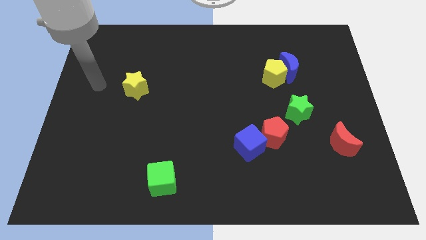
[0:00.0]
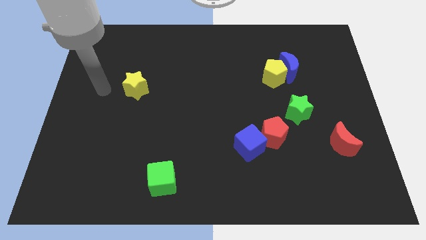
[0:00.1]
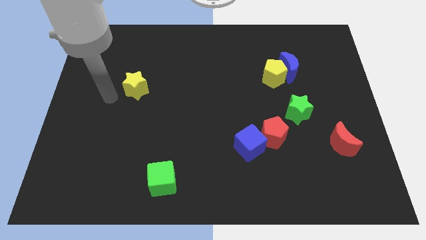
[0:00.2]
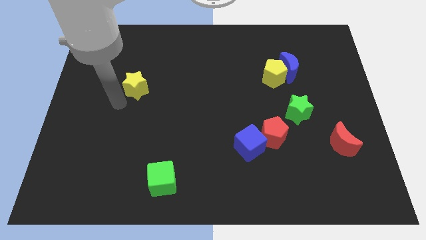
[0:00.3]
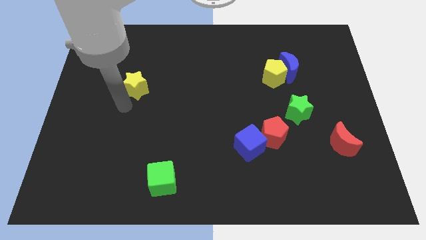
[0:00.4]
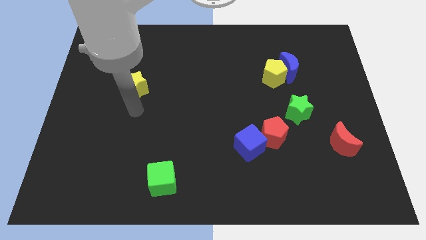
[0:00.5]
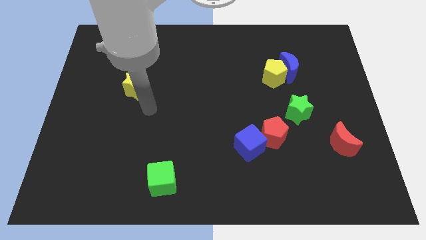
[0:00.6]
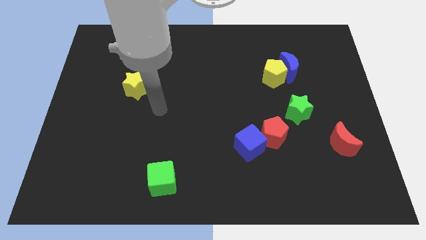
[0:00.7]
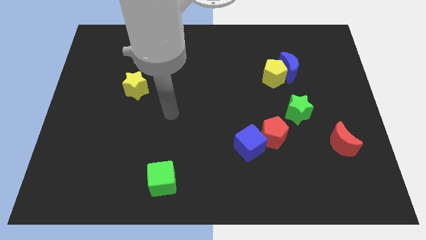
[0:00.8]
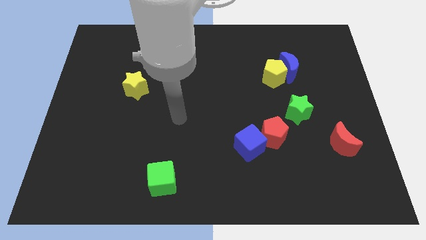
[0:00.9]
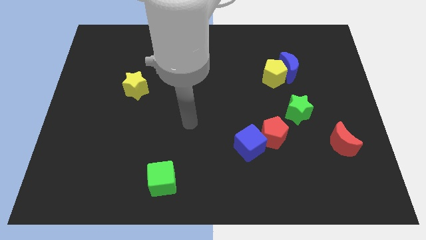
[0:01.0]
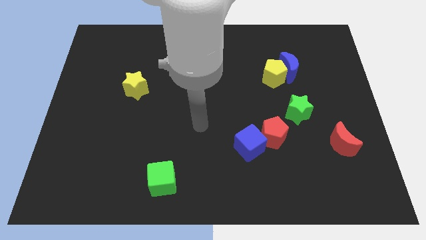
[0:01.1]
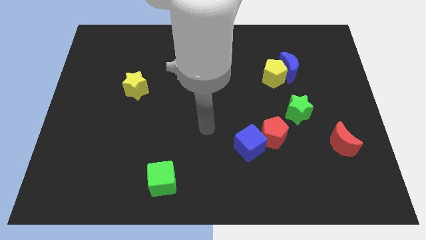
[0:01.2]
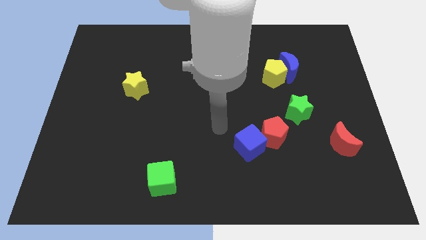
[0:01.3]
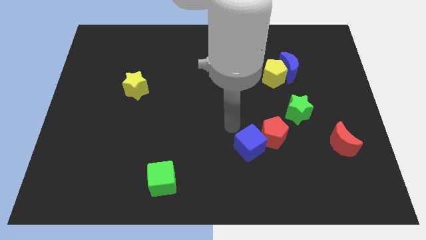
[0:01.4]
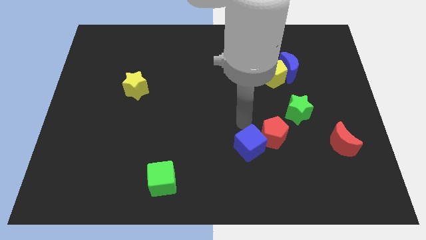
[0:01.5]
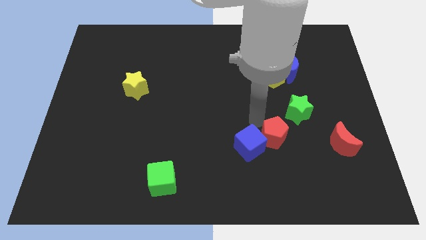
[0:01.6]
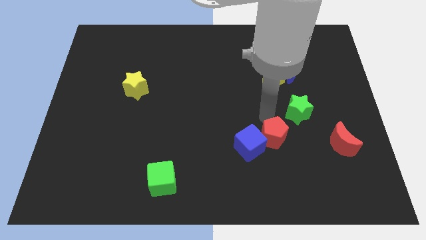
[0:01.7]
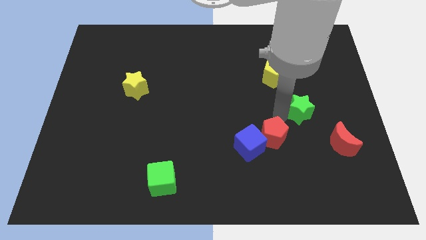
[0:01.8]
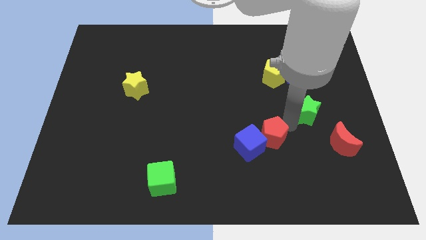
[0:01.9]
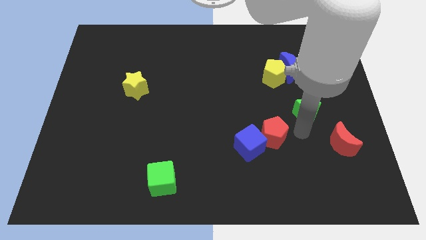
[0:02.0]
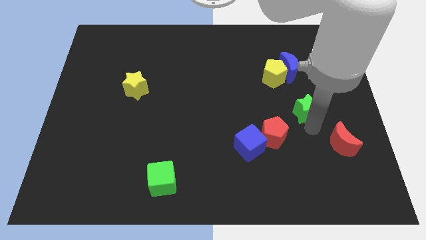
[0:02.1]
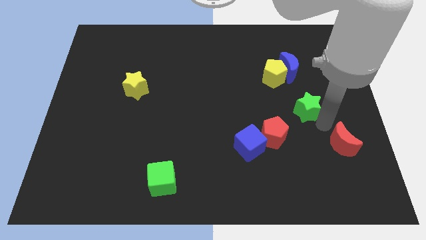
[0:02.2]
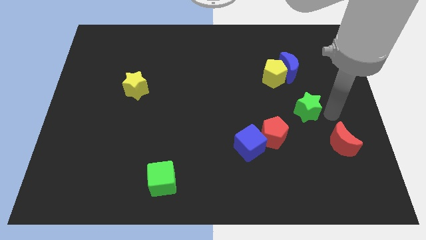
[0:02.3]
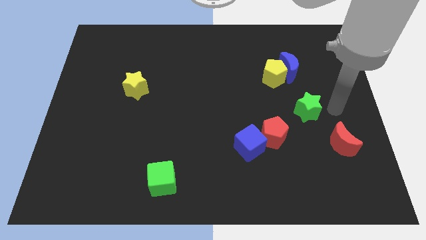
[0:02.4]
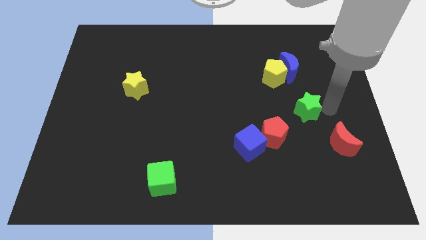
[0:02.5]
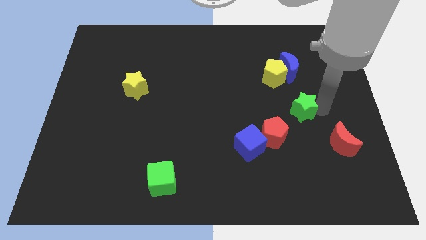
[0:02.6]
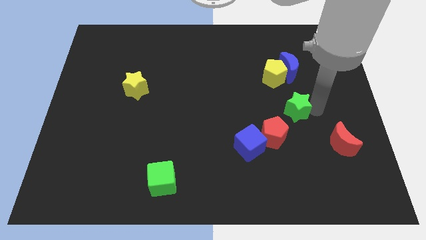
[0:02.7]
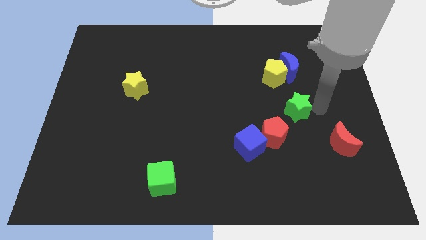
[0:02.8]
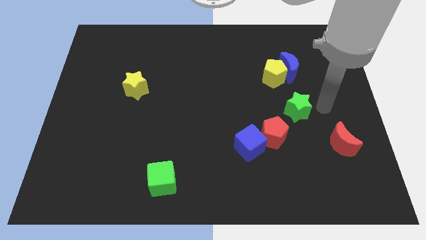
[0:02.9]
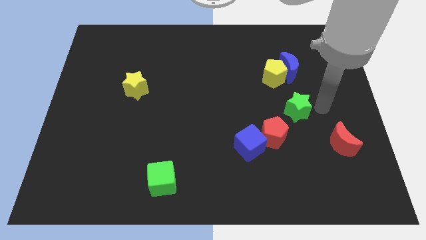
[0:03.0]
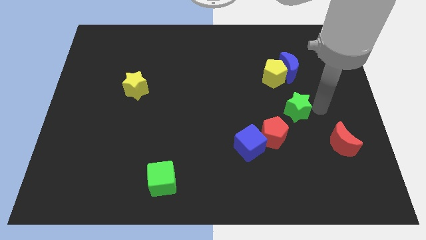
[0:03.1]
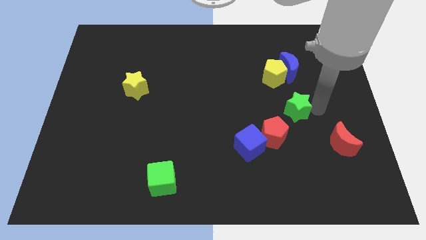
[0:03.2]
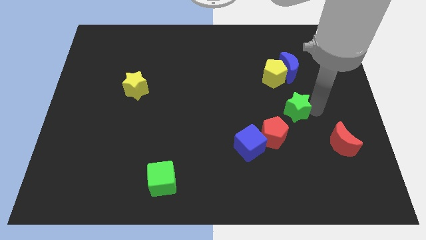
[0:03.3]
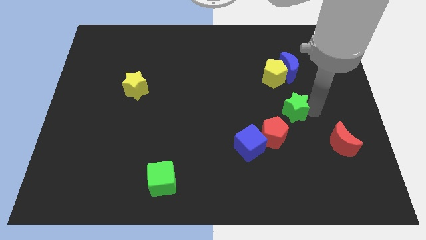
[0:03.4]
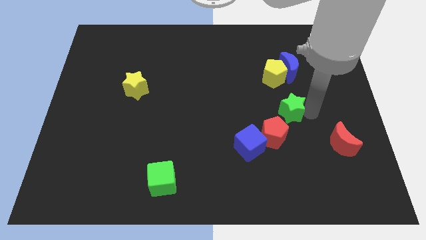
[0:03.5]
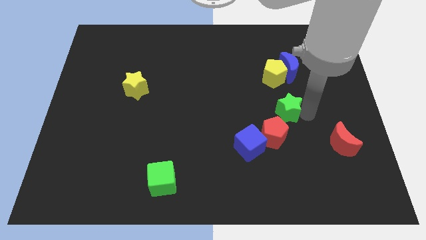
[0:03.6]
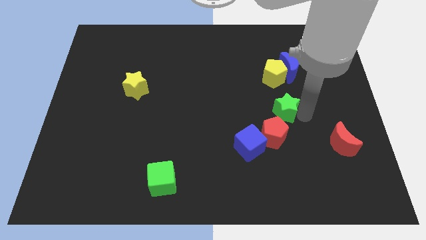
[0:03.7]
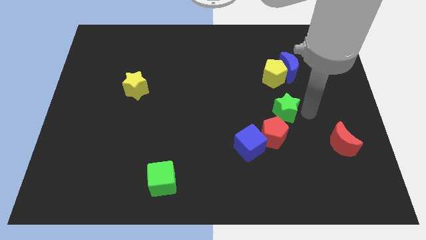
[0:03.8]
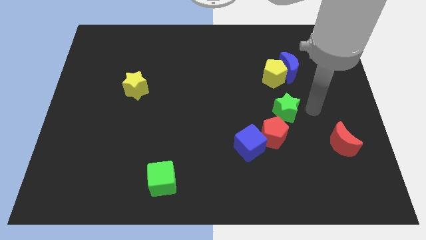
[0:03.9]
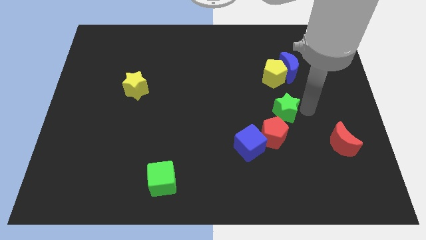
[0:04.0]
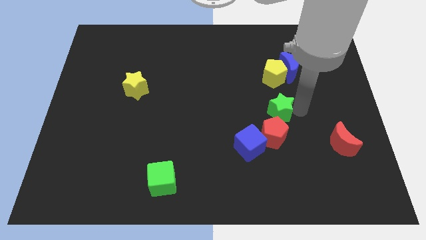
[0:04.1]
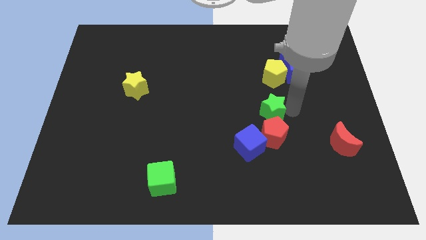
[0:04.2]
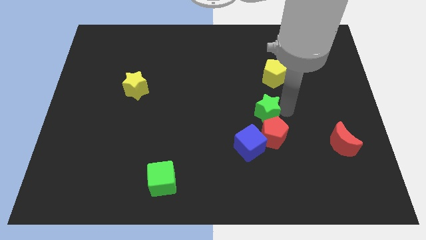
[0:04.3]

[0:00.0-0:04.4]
slightly push the green star left

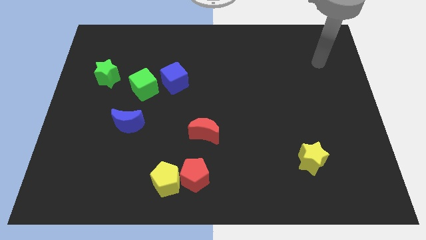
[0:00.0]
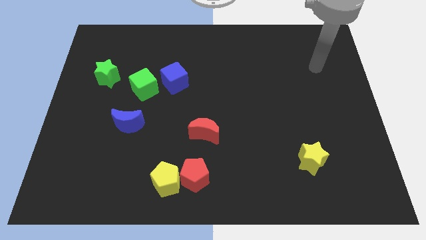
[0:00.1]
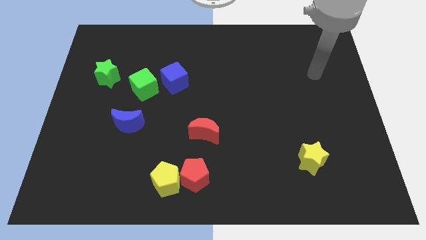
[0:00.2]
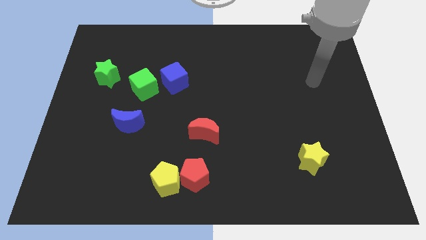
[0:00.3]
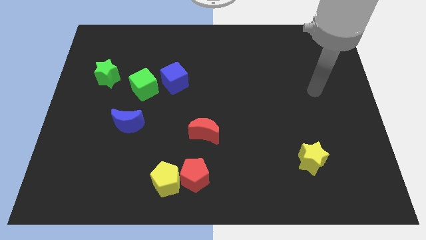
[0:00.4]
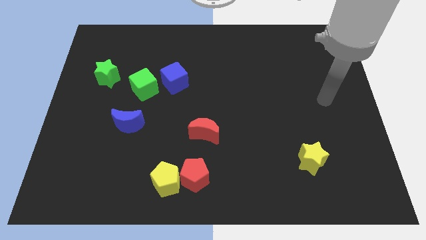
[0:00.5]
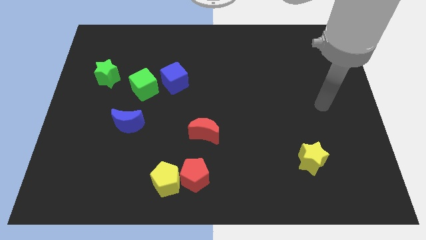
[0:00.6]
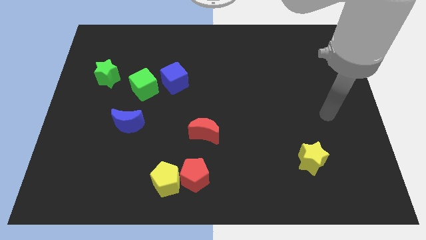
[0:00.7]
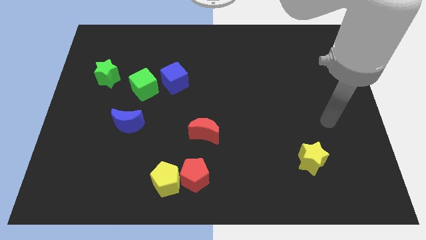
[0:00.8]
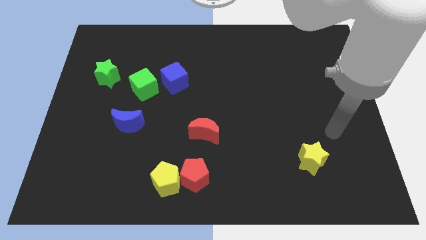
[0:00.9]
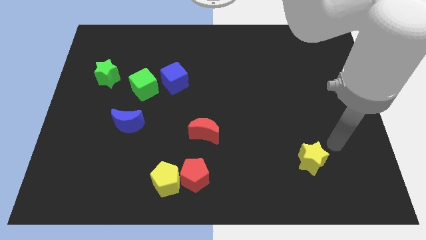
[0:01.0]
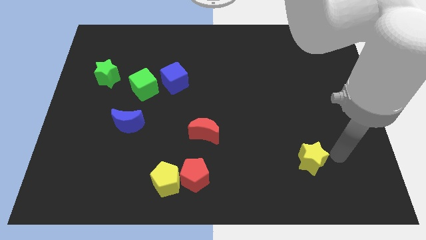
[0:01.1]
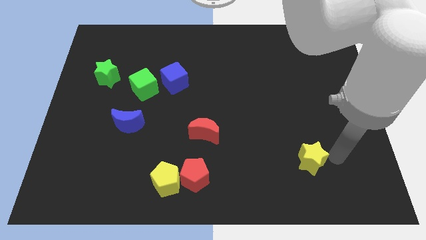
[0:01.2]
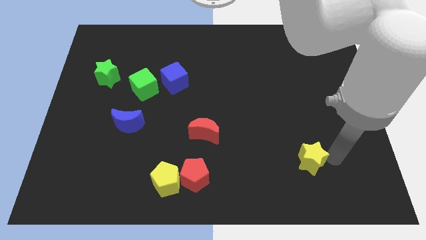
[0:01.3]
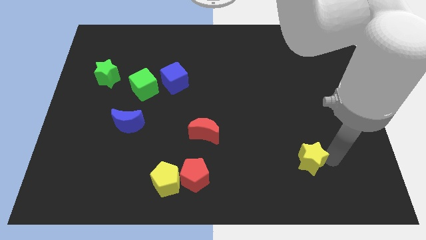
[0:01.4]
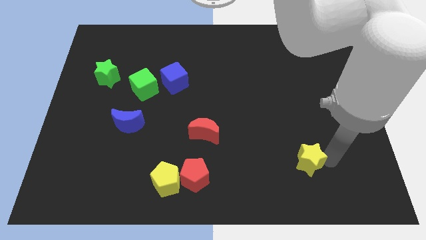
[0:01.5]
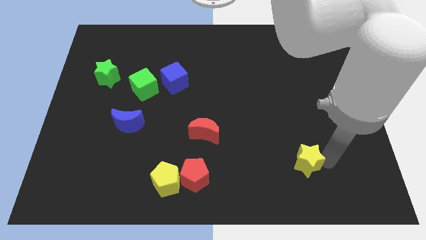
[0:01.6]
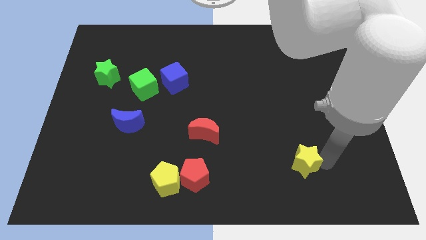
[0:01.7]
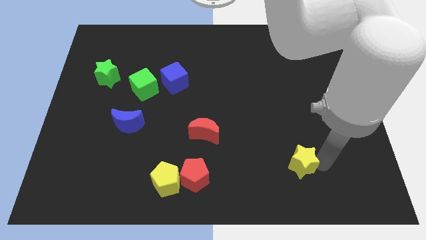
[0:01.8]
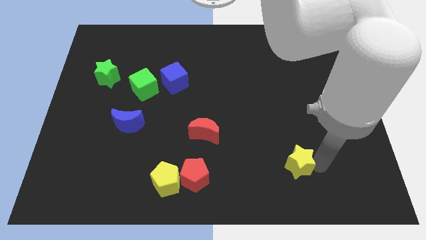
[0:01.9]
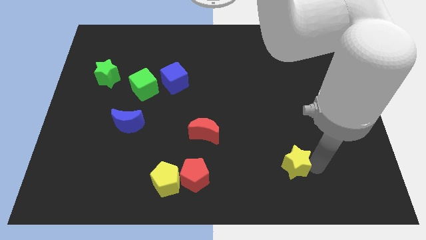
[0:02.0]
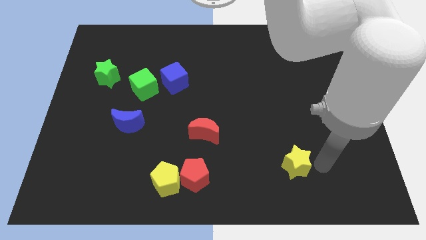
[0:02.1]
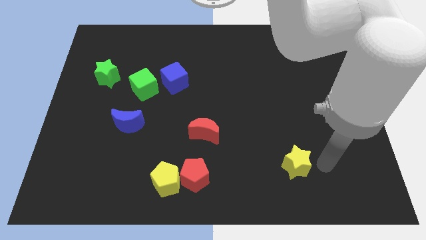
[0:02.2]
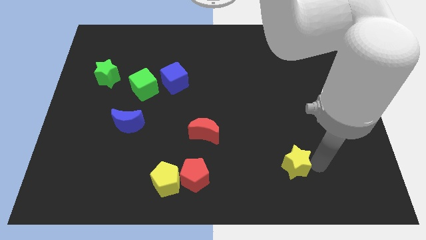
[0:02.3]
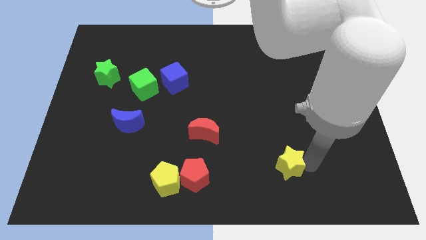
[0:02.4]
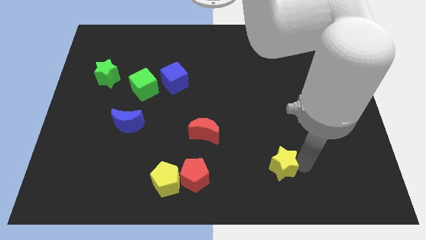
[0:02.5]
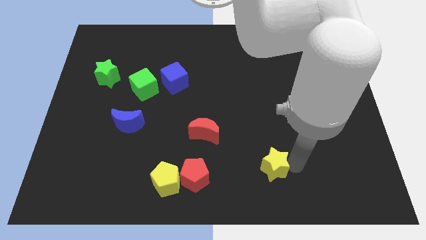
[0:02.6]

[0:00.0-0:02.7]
slide the yellow star slightly left

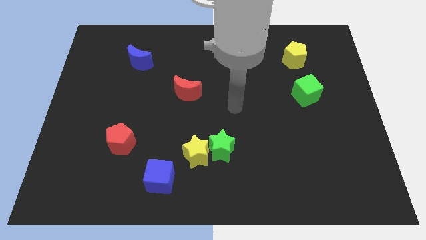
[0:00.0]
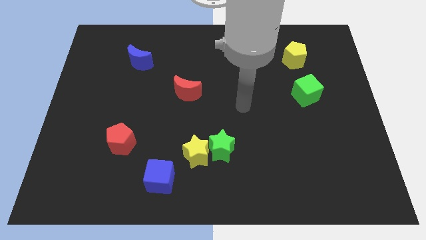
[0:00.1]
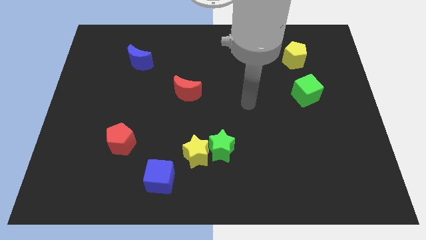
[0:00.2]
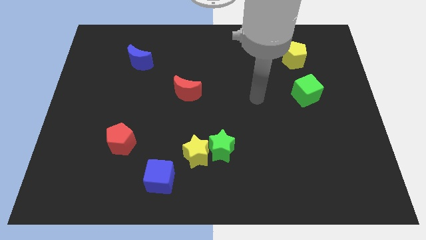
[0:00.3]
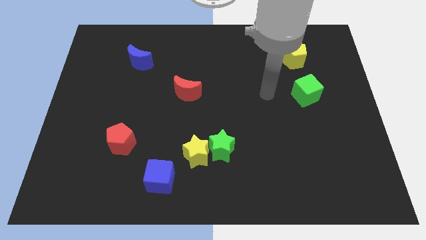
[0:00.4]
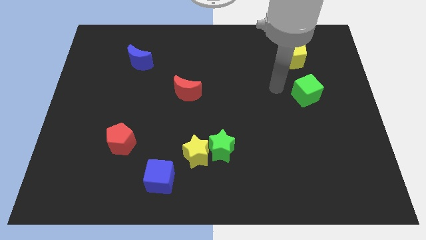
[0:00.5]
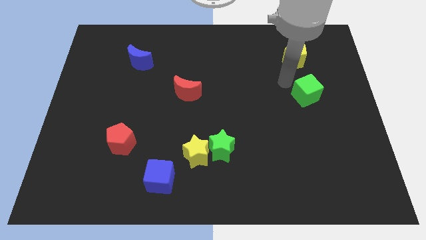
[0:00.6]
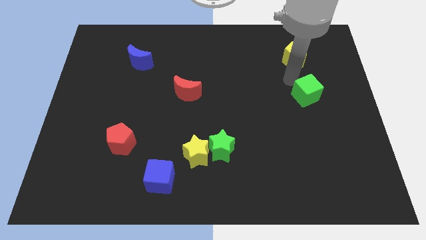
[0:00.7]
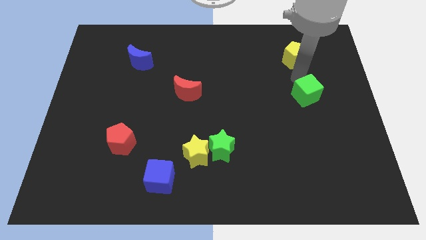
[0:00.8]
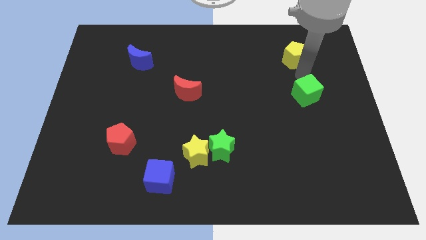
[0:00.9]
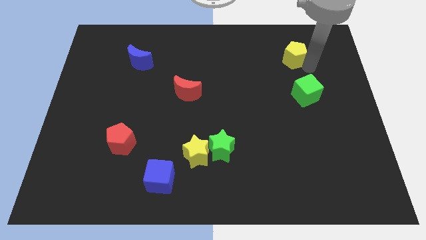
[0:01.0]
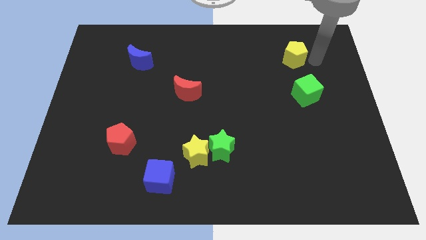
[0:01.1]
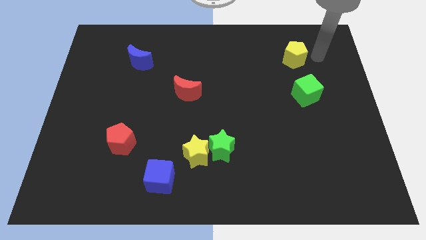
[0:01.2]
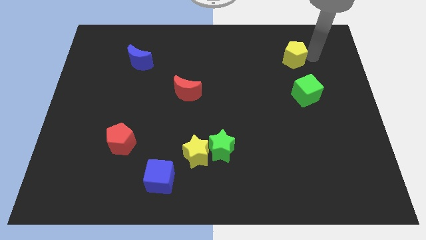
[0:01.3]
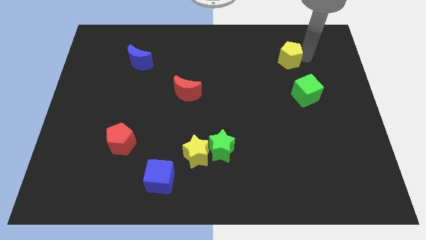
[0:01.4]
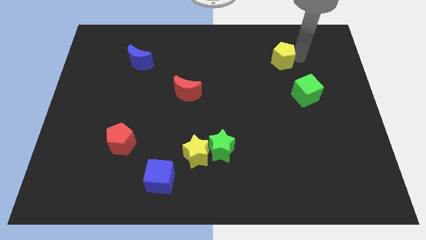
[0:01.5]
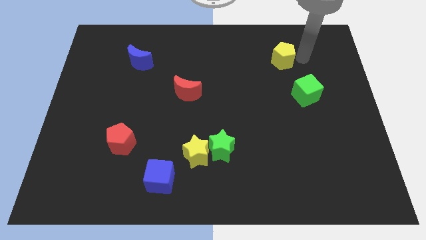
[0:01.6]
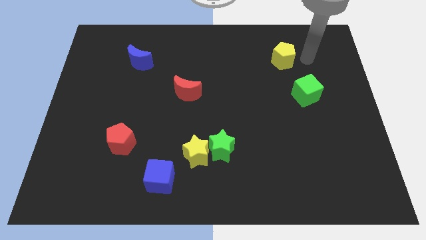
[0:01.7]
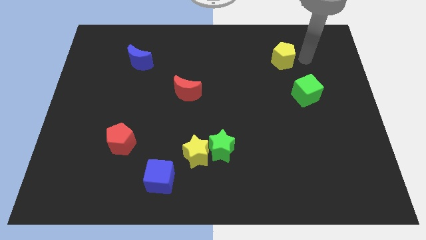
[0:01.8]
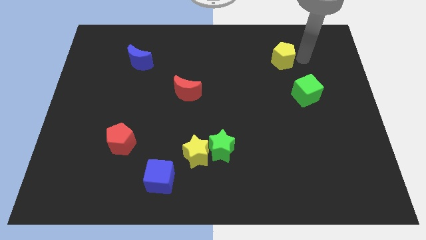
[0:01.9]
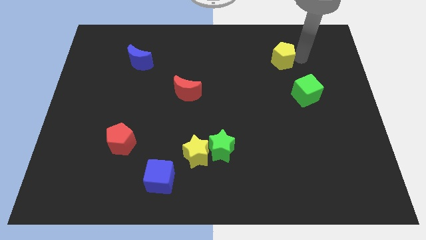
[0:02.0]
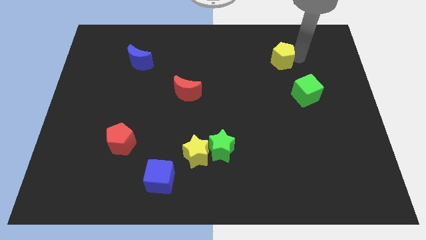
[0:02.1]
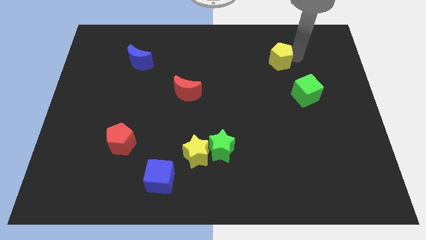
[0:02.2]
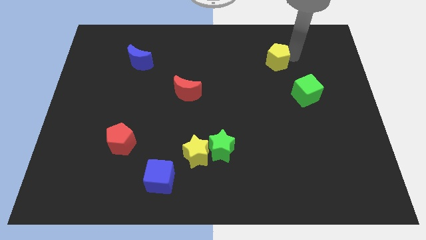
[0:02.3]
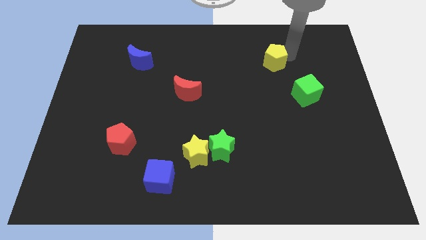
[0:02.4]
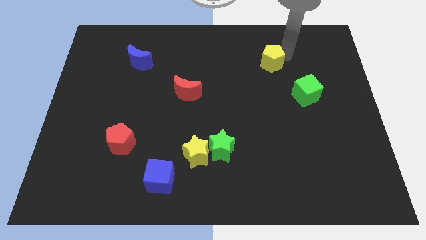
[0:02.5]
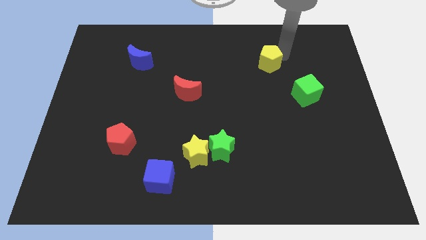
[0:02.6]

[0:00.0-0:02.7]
slide the yellow pentagon somewhat left
